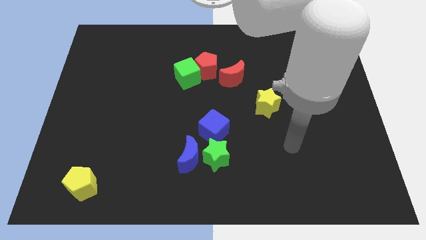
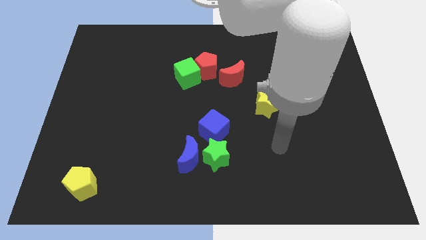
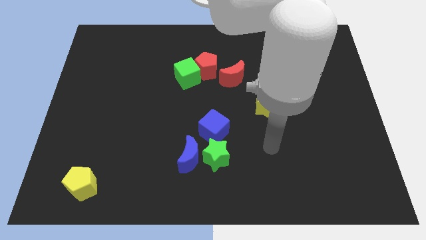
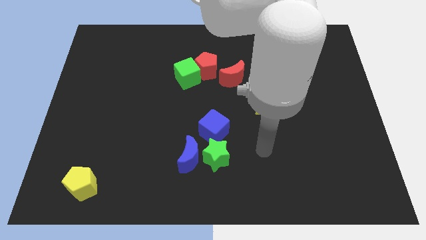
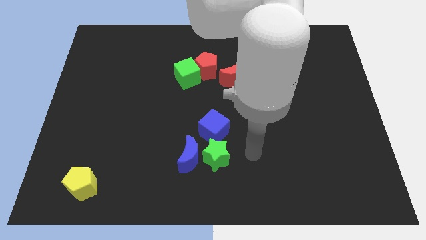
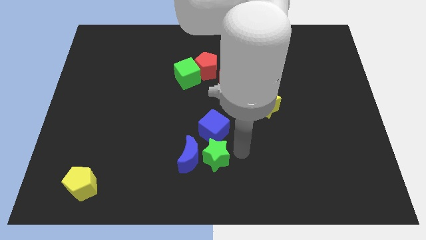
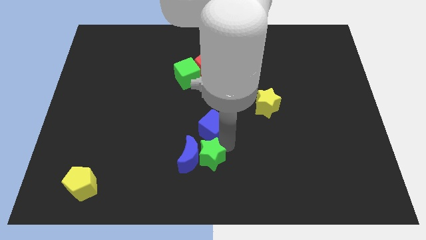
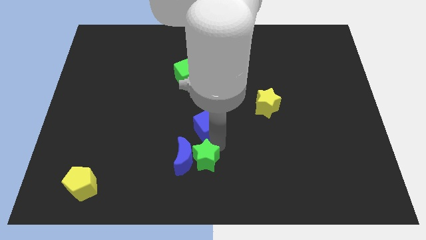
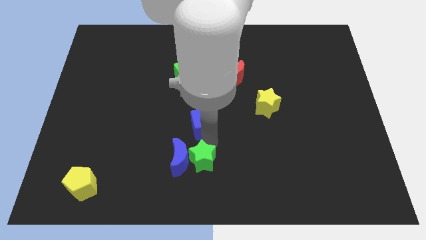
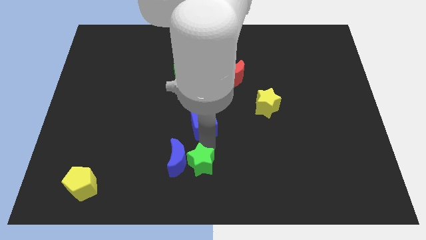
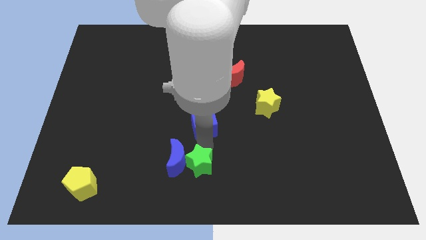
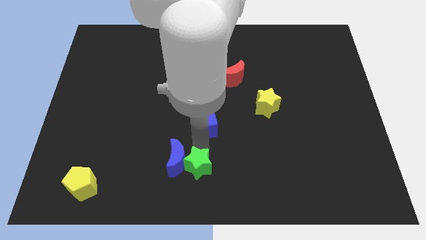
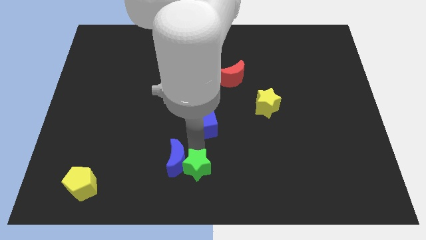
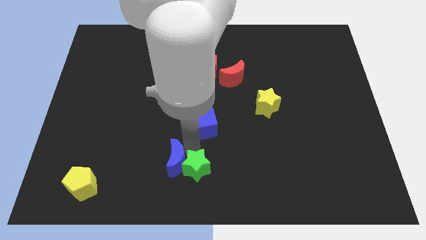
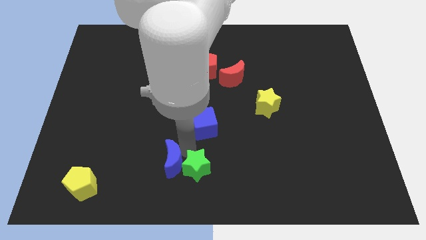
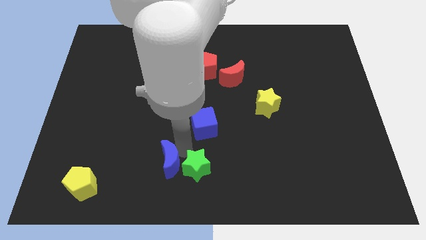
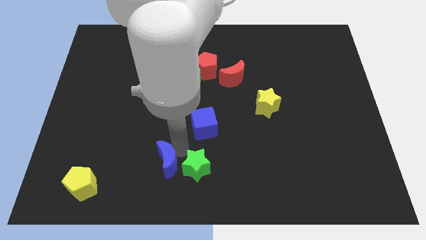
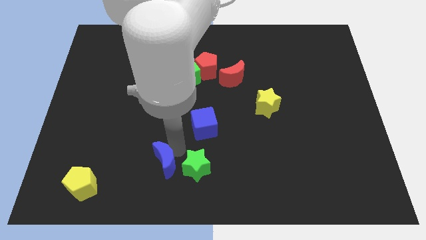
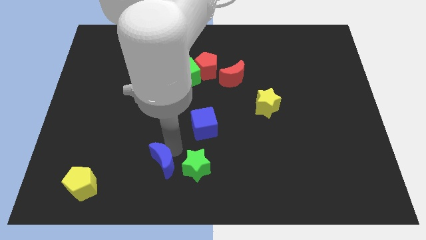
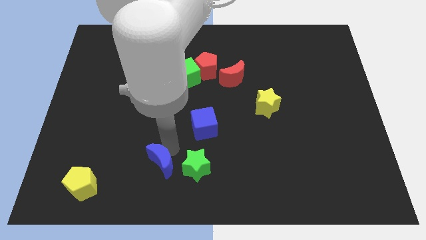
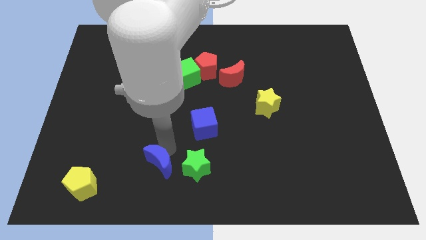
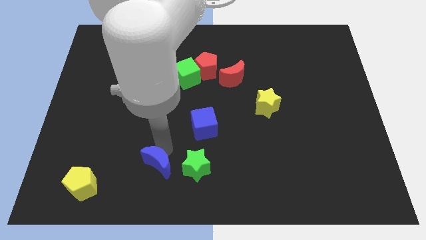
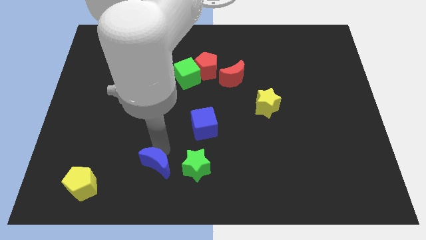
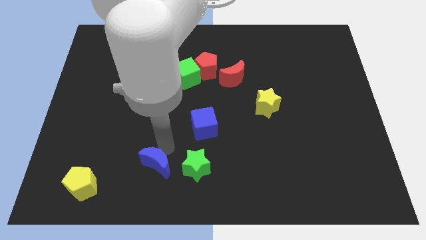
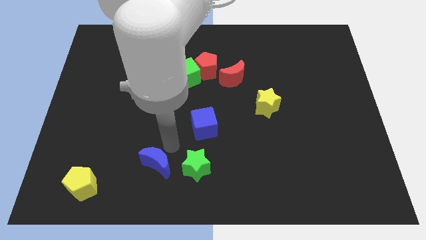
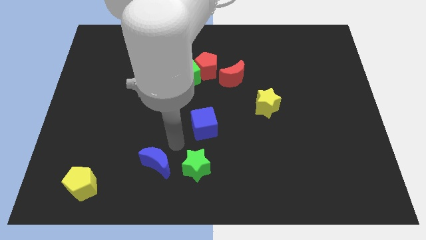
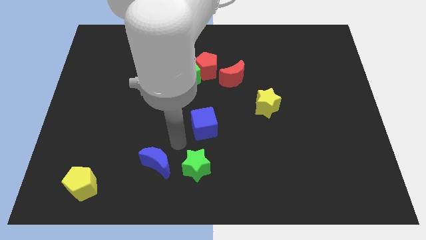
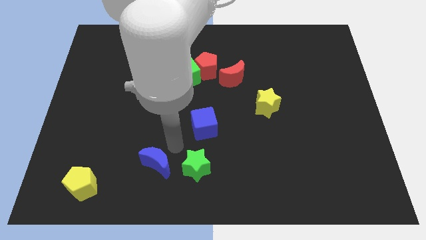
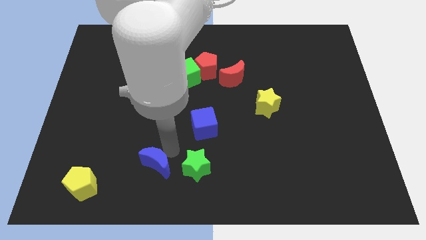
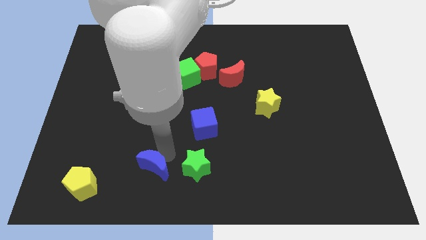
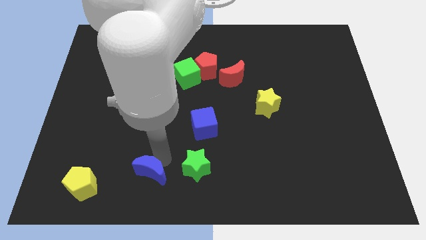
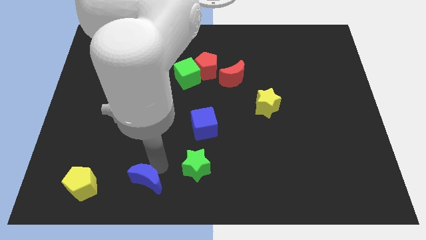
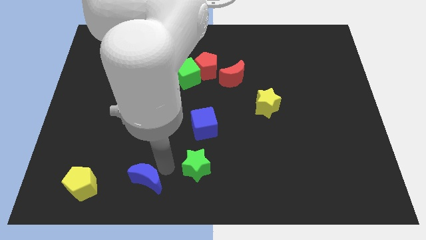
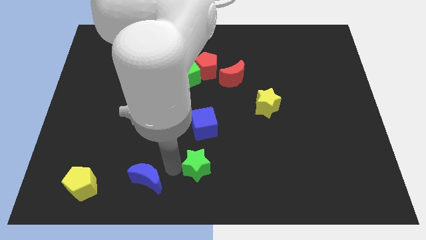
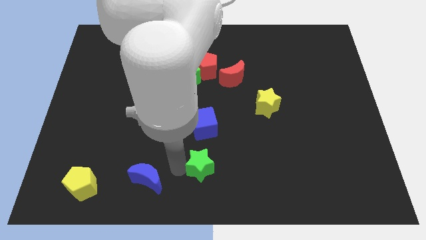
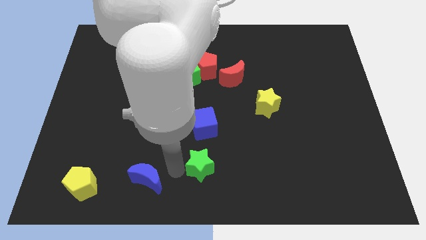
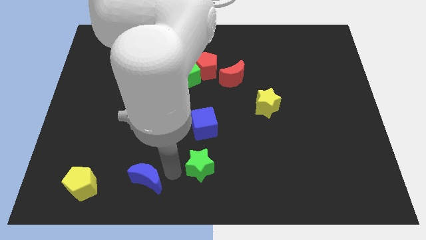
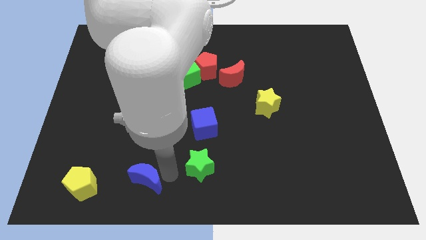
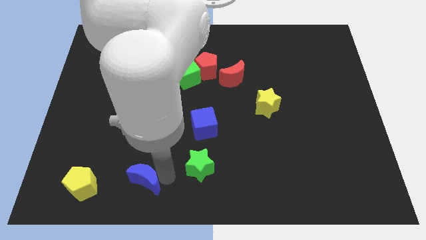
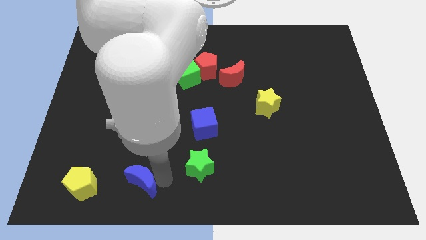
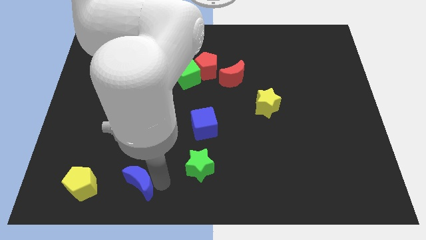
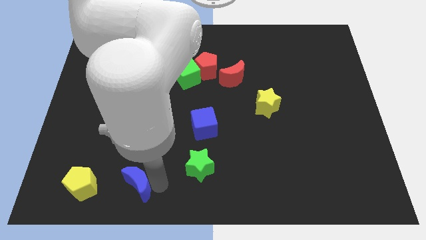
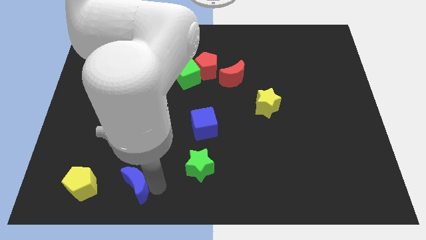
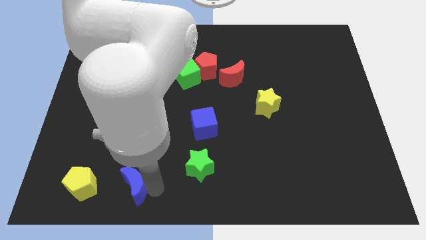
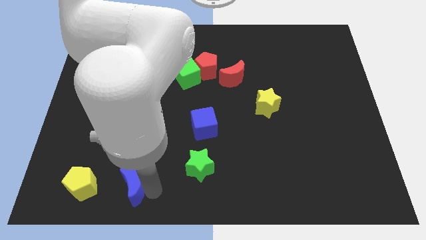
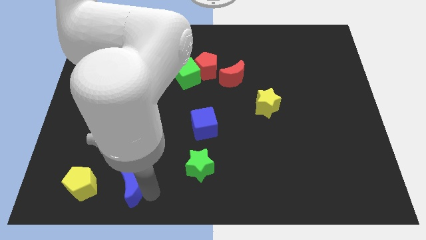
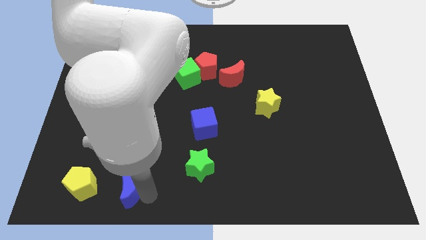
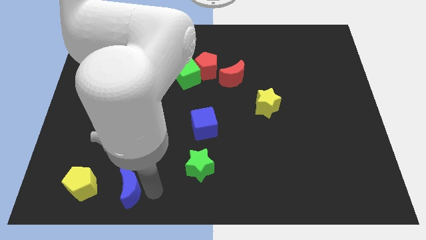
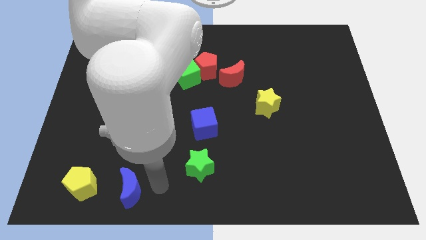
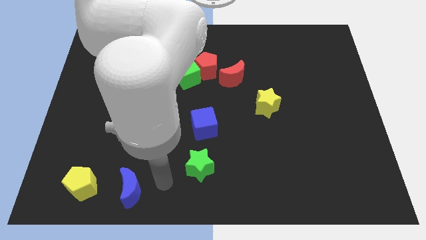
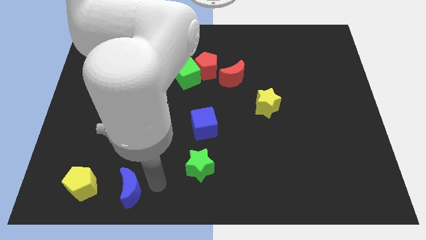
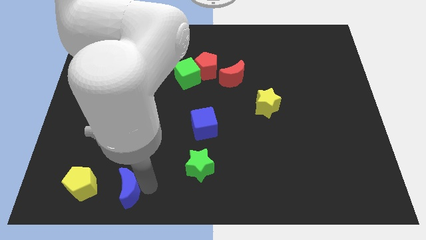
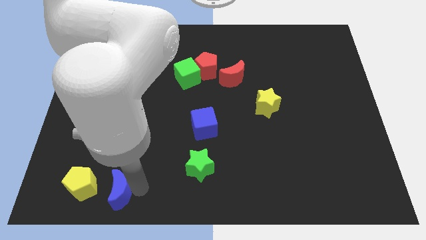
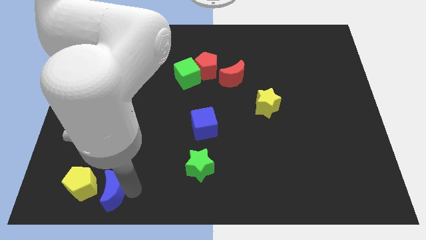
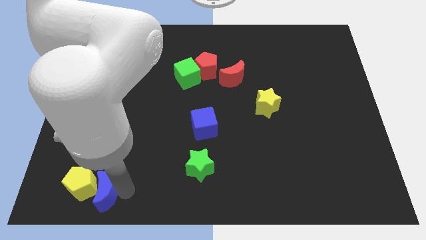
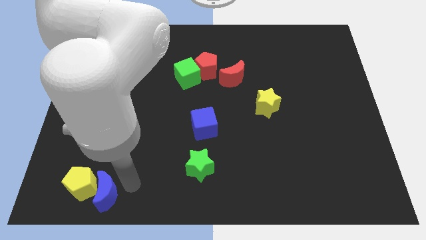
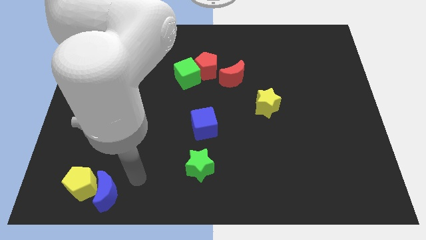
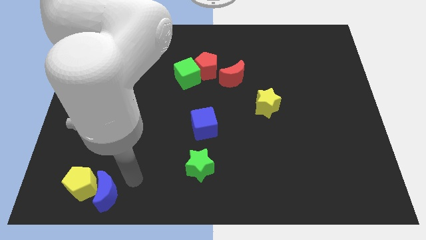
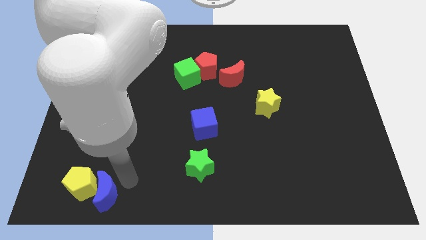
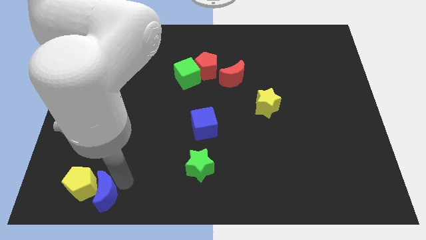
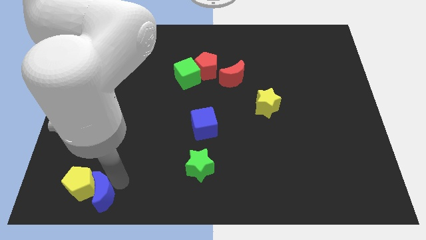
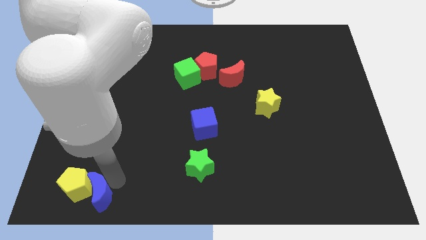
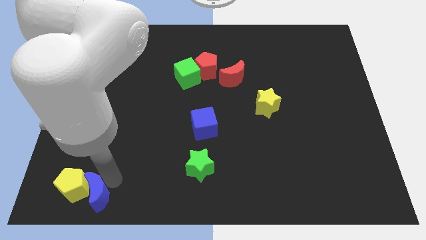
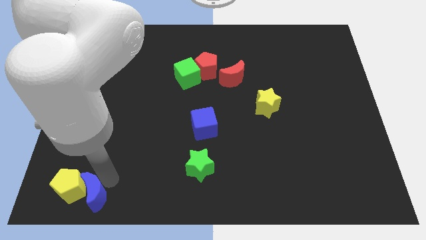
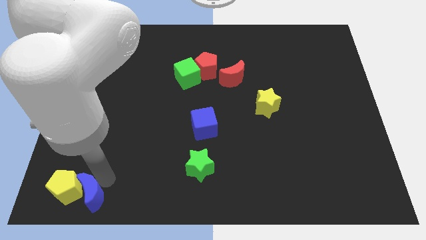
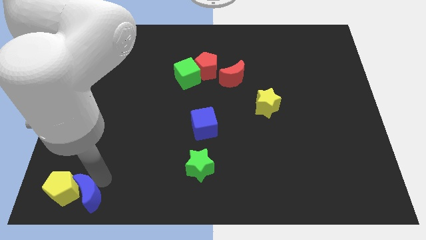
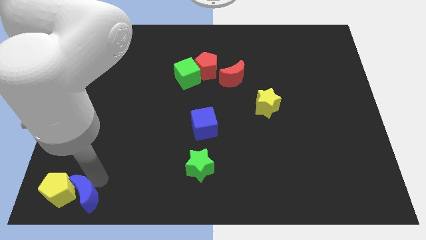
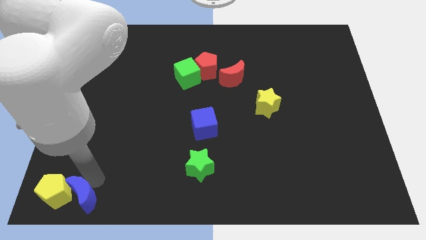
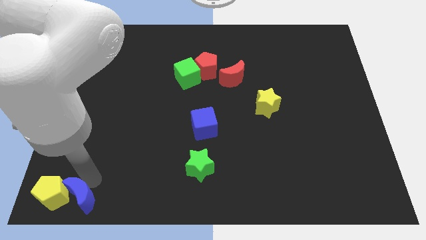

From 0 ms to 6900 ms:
put the blue moon to the bottom left corner
